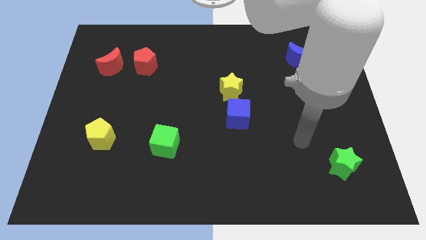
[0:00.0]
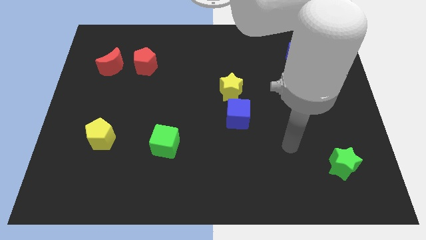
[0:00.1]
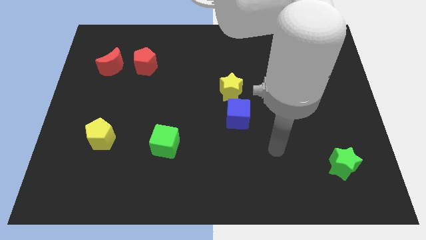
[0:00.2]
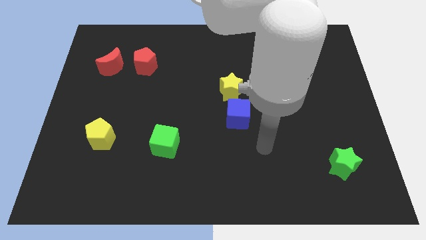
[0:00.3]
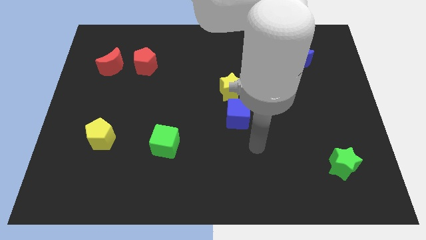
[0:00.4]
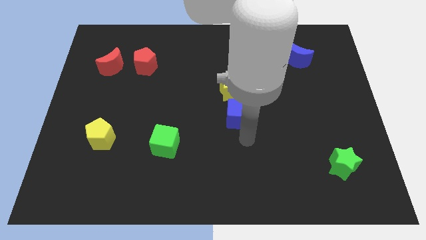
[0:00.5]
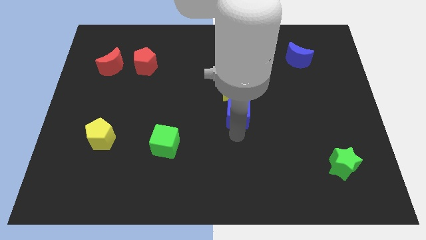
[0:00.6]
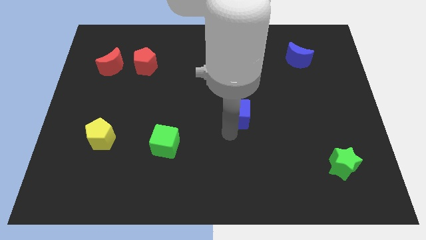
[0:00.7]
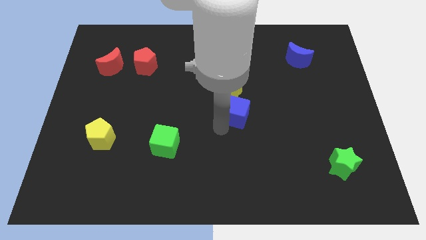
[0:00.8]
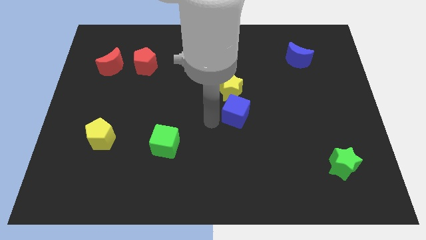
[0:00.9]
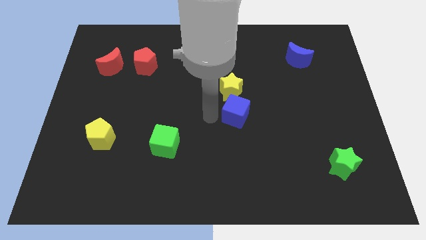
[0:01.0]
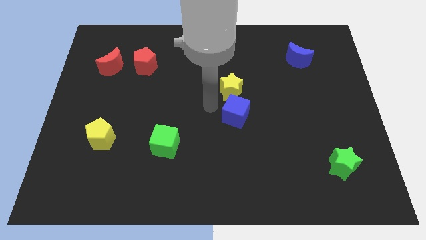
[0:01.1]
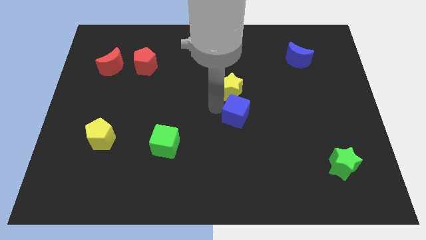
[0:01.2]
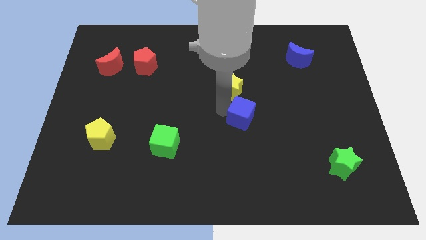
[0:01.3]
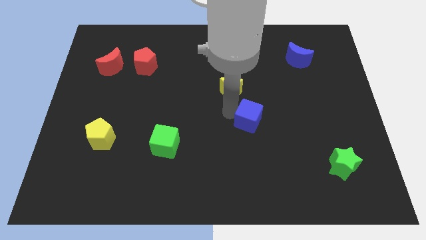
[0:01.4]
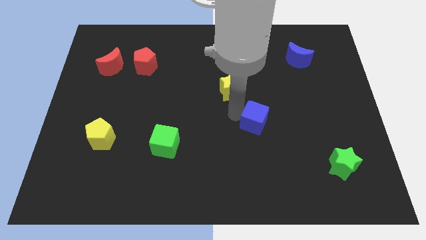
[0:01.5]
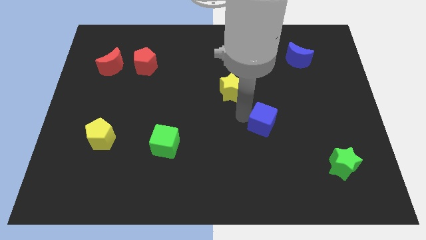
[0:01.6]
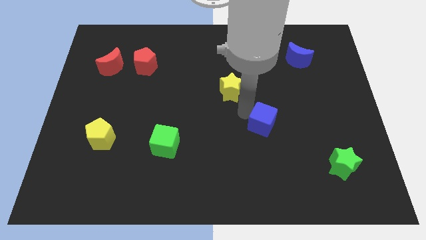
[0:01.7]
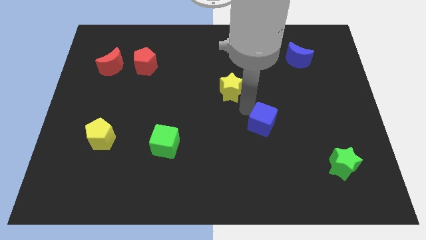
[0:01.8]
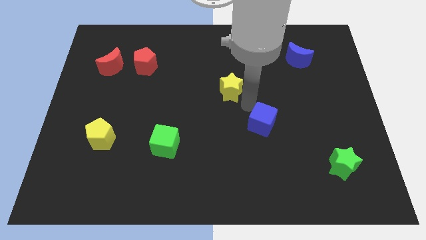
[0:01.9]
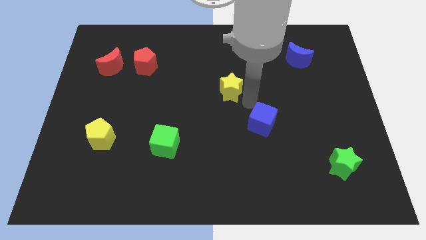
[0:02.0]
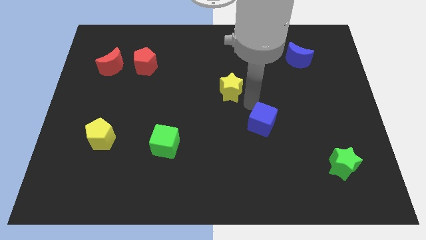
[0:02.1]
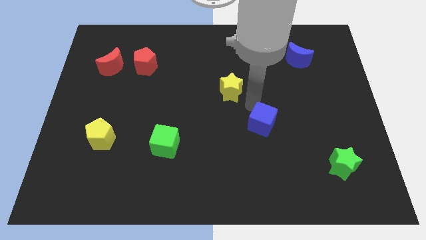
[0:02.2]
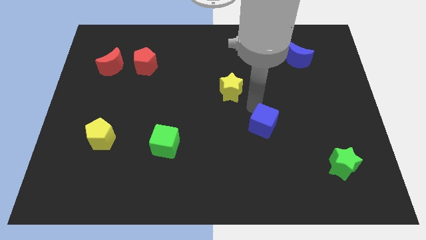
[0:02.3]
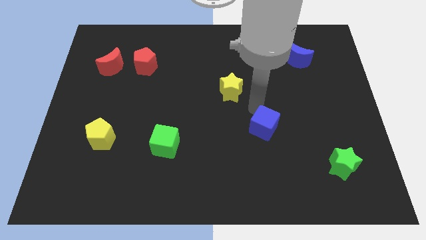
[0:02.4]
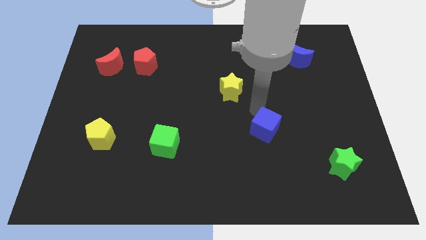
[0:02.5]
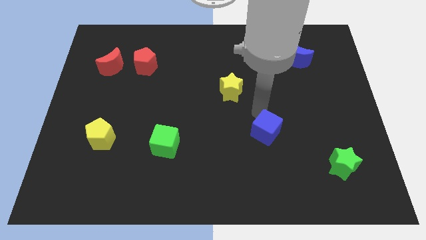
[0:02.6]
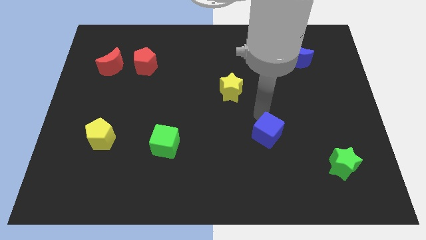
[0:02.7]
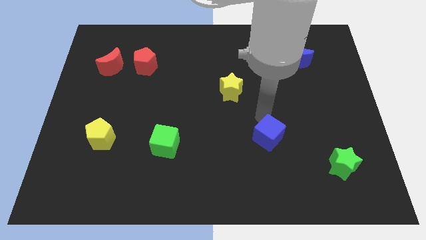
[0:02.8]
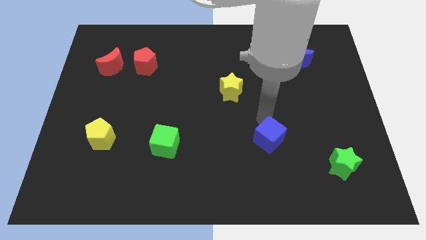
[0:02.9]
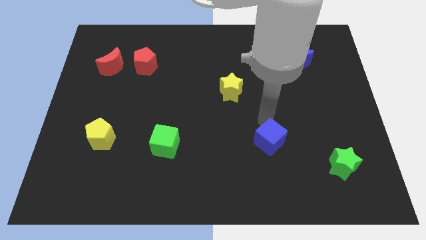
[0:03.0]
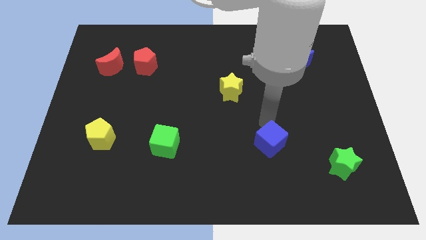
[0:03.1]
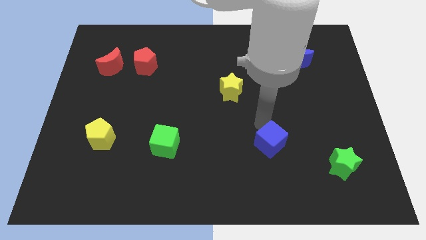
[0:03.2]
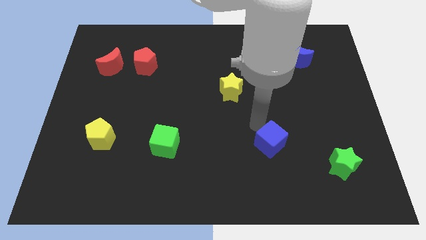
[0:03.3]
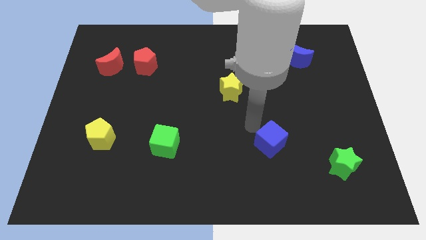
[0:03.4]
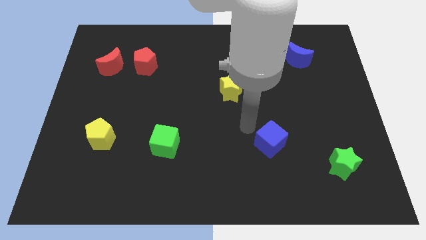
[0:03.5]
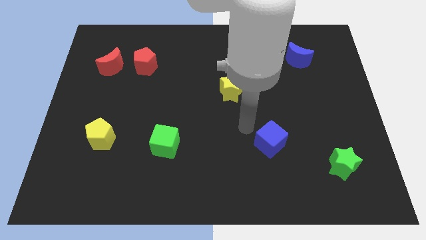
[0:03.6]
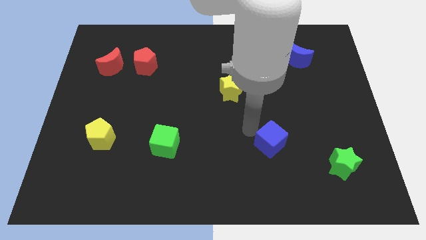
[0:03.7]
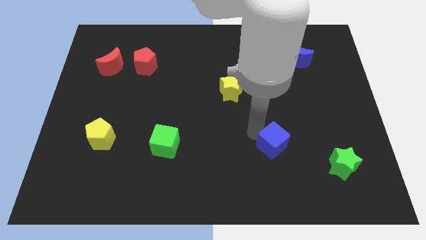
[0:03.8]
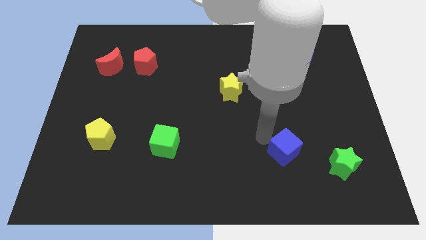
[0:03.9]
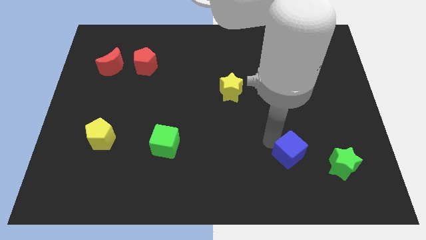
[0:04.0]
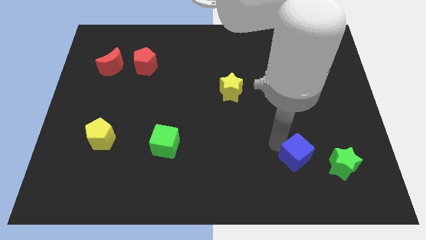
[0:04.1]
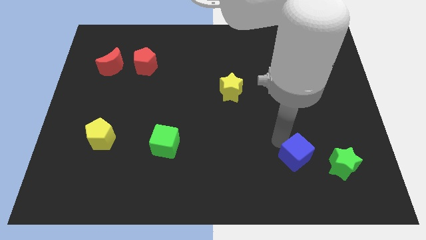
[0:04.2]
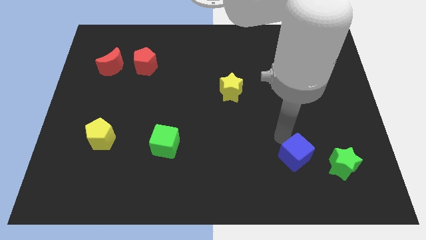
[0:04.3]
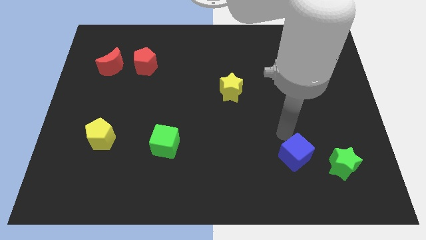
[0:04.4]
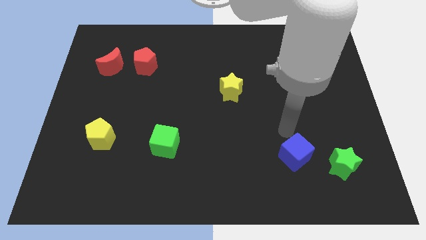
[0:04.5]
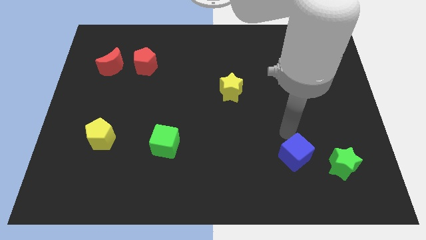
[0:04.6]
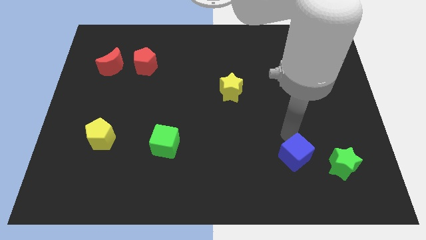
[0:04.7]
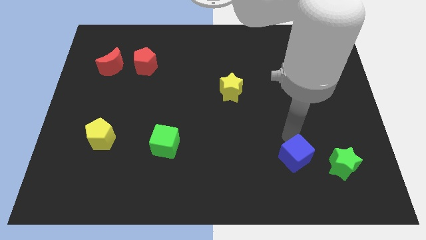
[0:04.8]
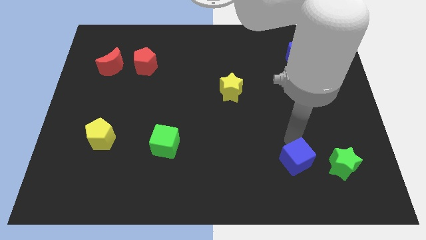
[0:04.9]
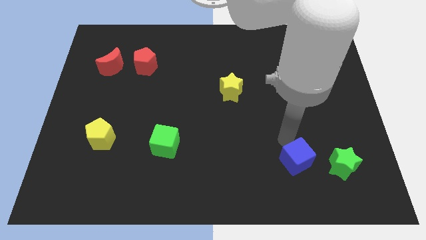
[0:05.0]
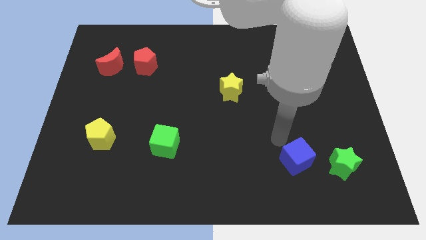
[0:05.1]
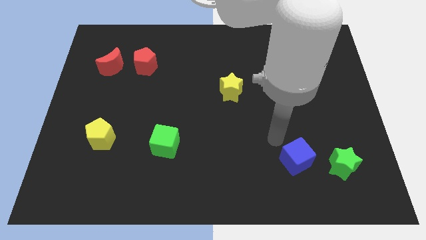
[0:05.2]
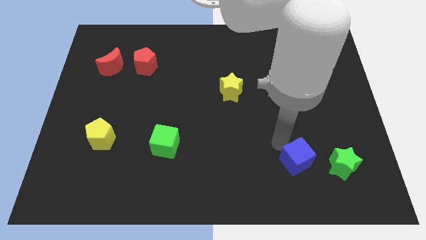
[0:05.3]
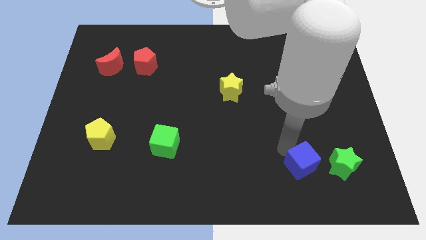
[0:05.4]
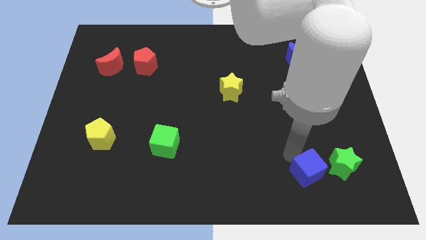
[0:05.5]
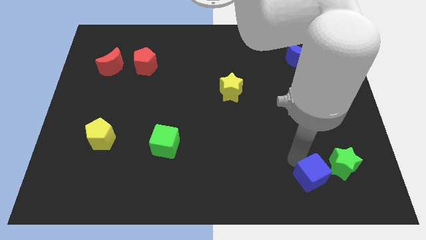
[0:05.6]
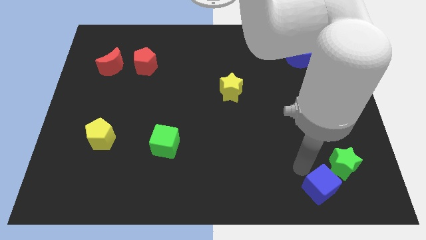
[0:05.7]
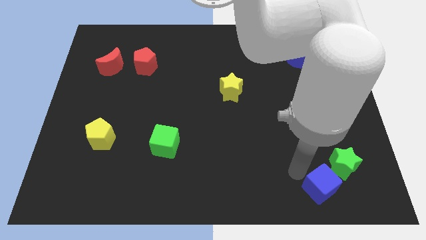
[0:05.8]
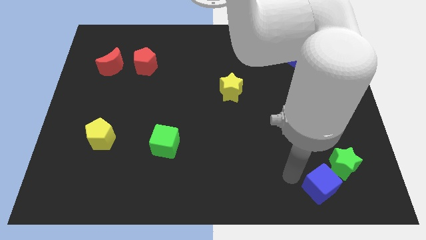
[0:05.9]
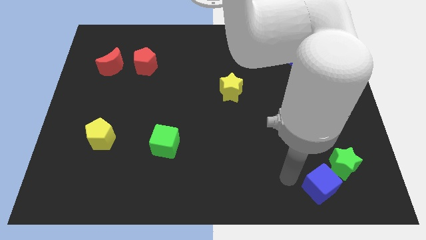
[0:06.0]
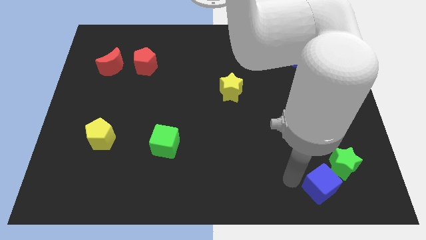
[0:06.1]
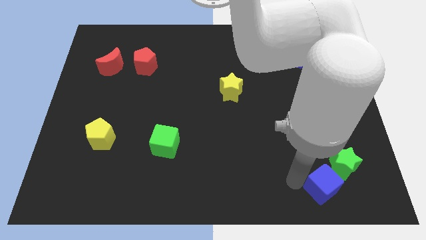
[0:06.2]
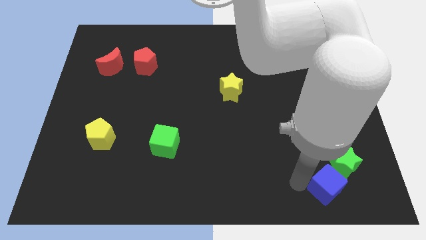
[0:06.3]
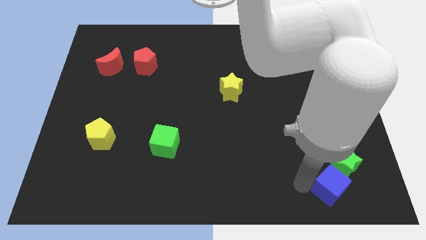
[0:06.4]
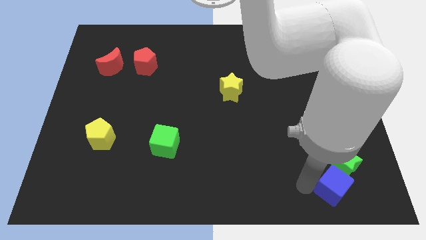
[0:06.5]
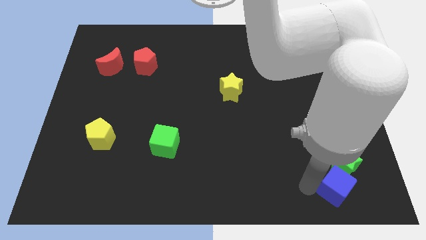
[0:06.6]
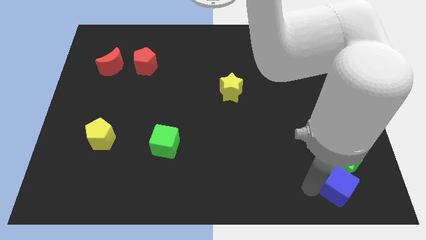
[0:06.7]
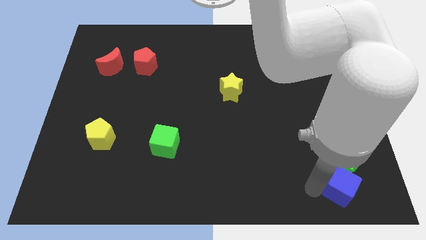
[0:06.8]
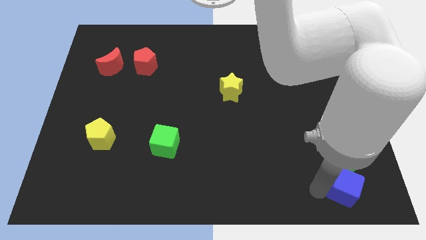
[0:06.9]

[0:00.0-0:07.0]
put the blue cube to the bottom right
